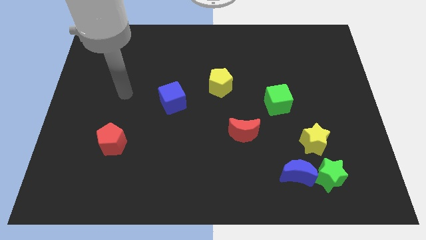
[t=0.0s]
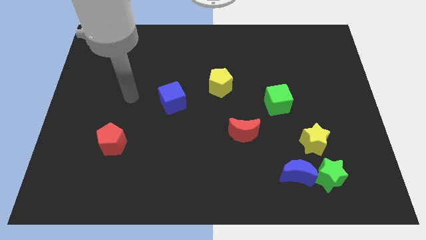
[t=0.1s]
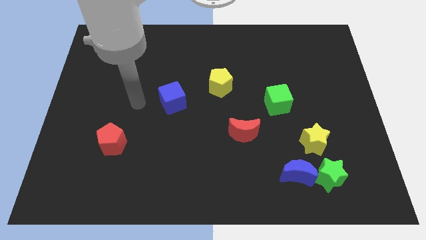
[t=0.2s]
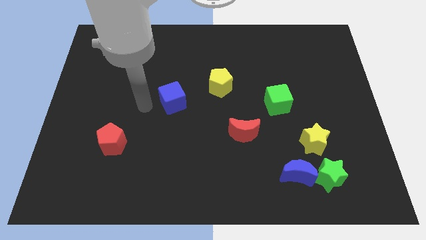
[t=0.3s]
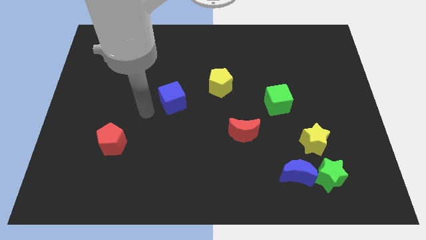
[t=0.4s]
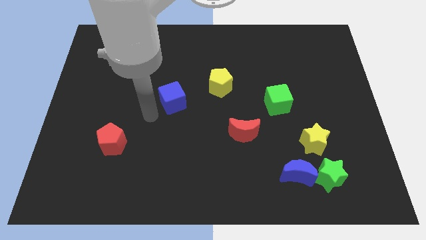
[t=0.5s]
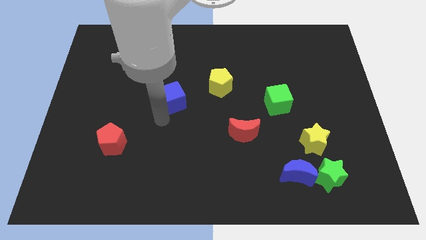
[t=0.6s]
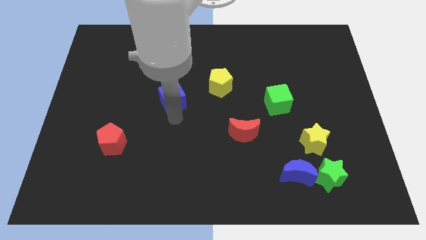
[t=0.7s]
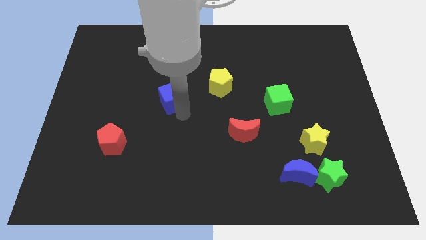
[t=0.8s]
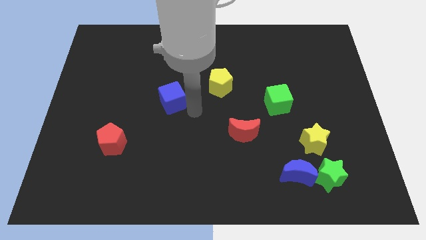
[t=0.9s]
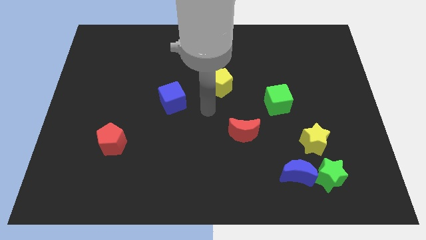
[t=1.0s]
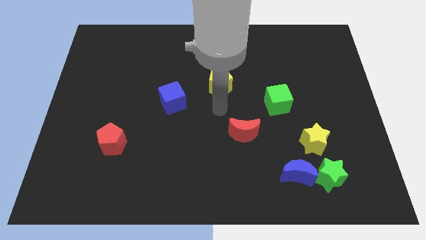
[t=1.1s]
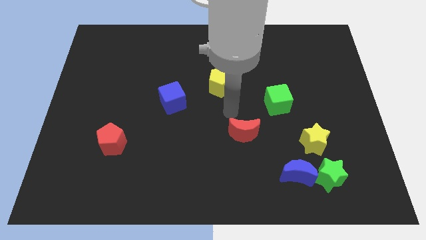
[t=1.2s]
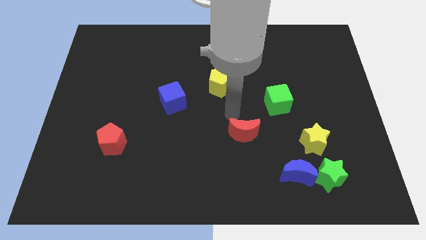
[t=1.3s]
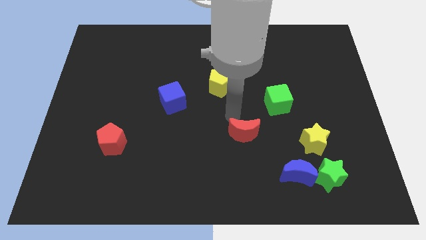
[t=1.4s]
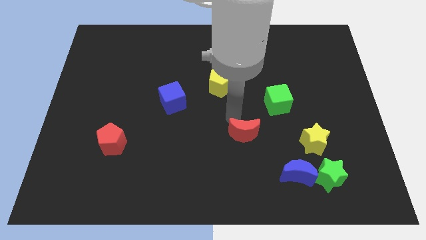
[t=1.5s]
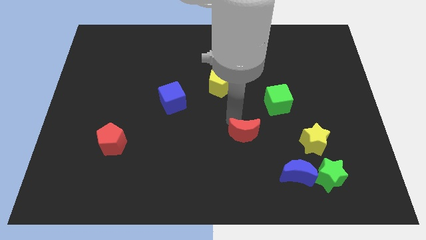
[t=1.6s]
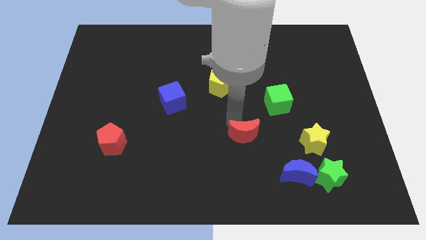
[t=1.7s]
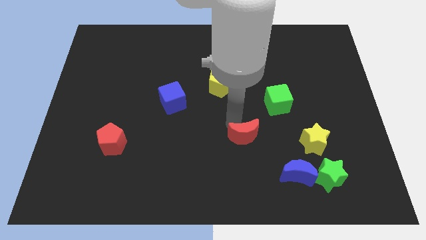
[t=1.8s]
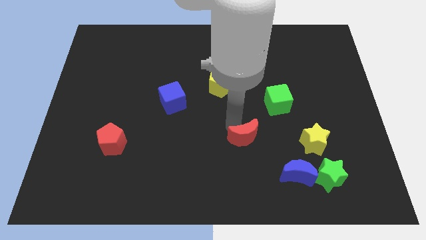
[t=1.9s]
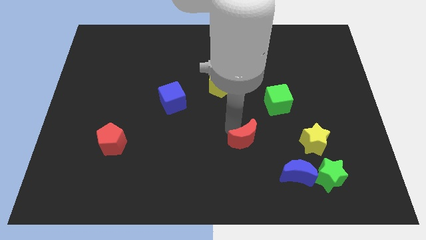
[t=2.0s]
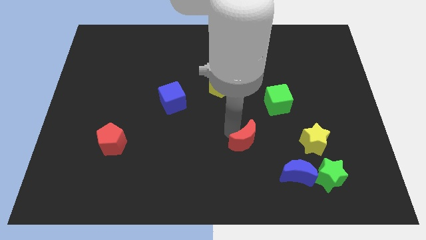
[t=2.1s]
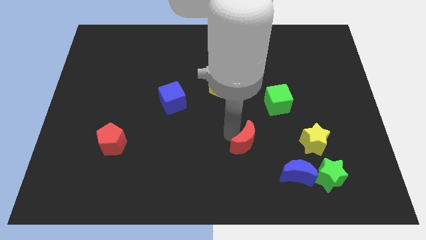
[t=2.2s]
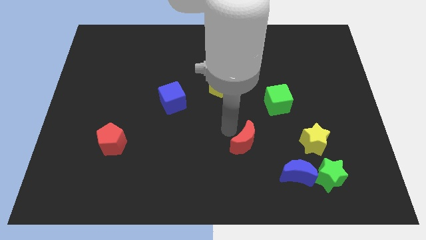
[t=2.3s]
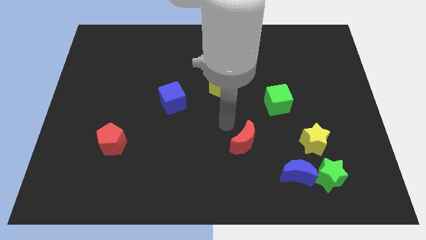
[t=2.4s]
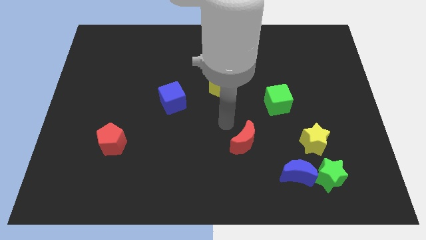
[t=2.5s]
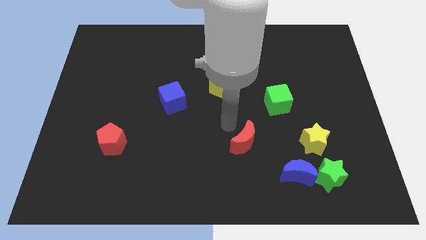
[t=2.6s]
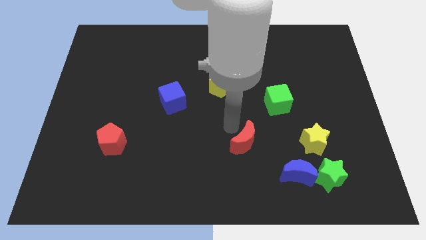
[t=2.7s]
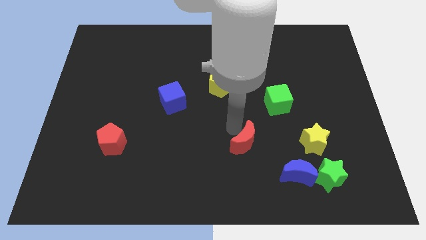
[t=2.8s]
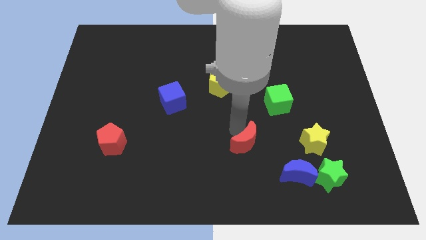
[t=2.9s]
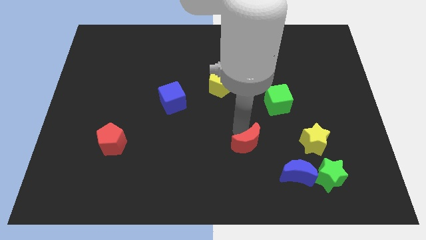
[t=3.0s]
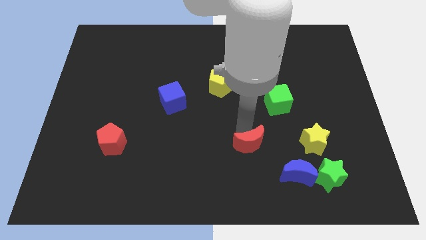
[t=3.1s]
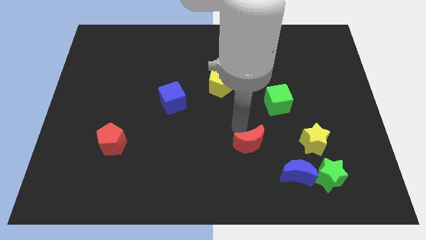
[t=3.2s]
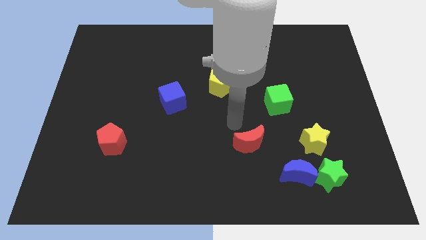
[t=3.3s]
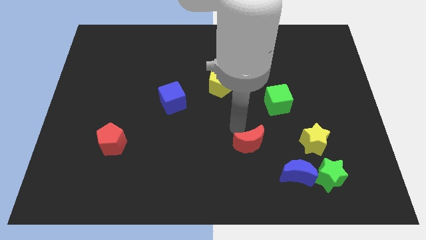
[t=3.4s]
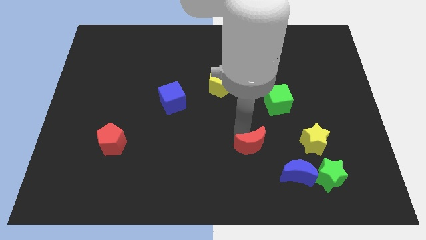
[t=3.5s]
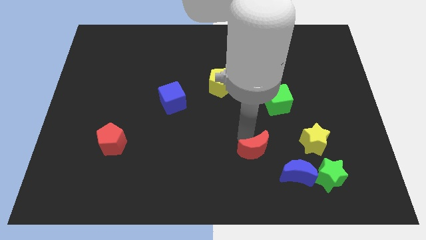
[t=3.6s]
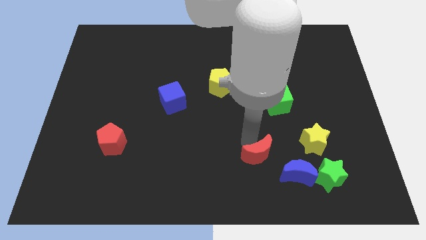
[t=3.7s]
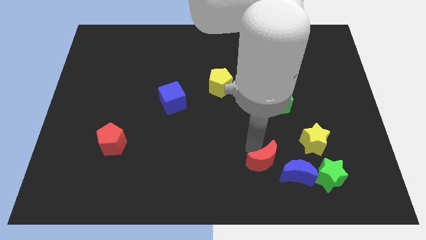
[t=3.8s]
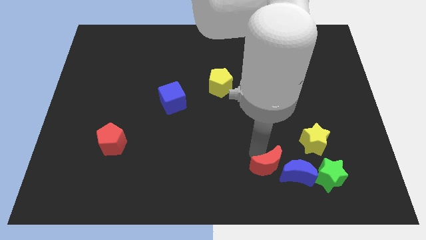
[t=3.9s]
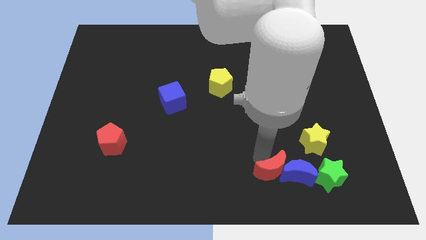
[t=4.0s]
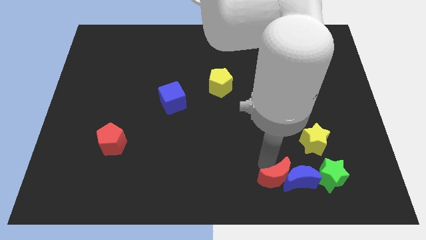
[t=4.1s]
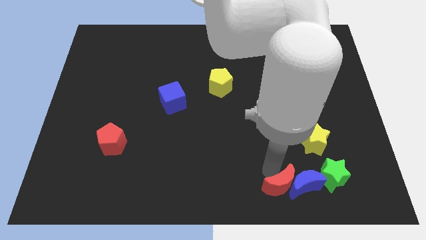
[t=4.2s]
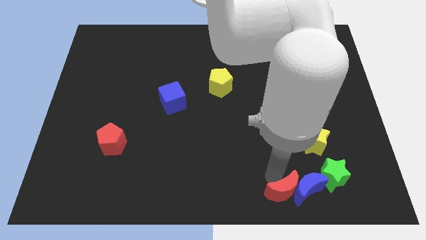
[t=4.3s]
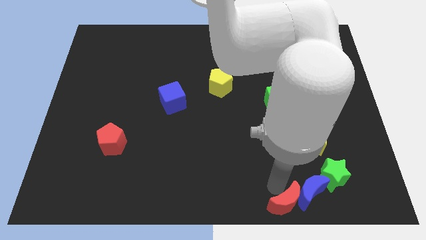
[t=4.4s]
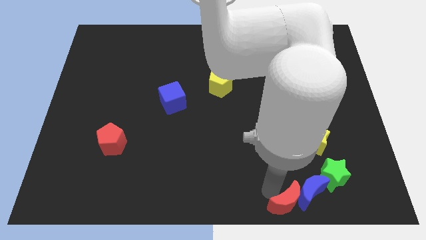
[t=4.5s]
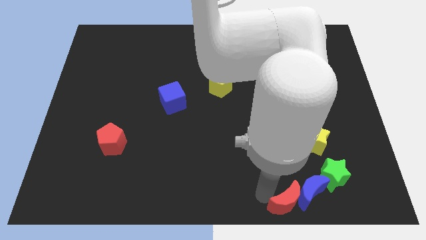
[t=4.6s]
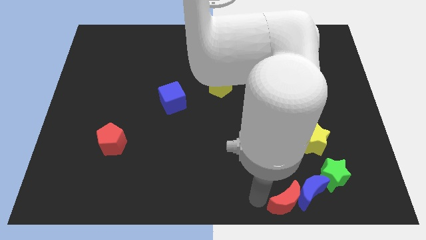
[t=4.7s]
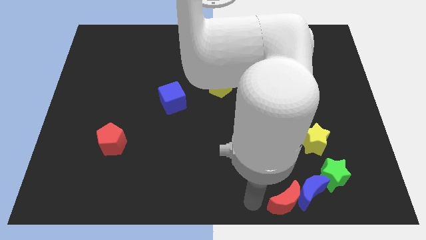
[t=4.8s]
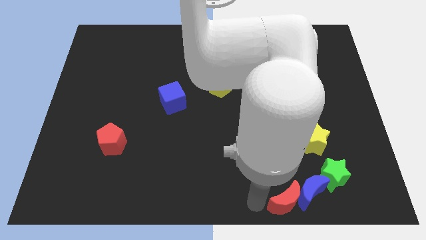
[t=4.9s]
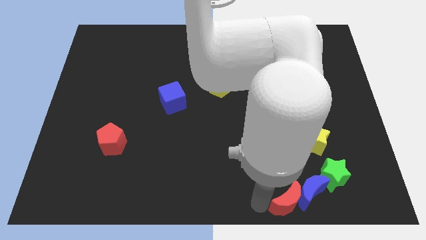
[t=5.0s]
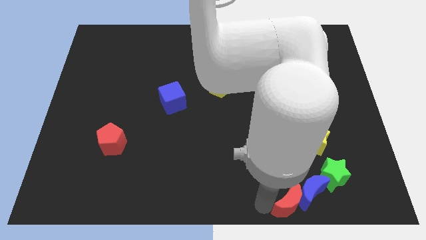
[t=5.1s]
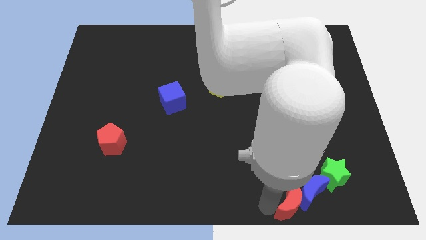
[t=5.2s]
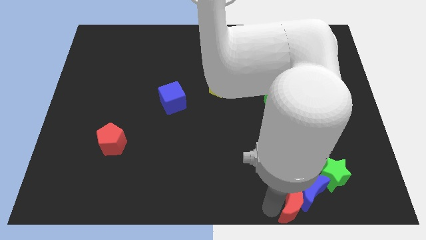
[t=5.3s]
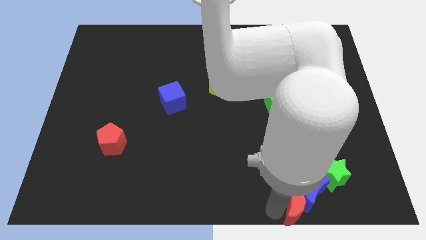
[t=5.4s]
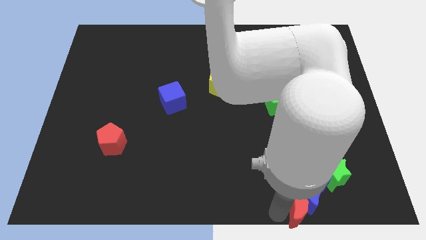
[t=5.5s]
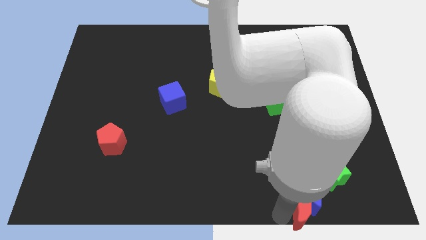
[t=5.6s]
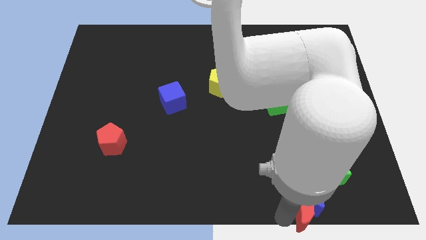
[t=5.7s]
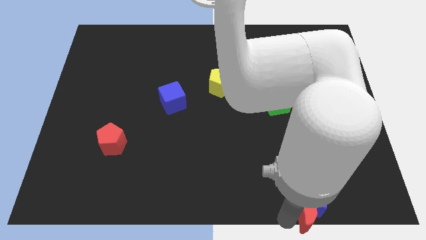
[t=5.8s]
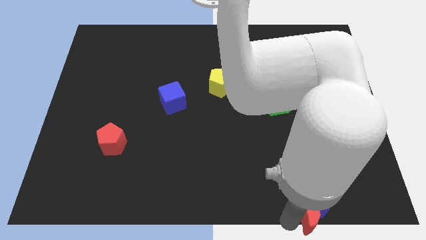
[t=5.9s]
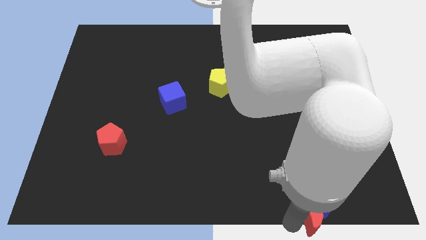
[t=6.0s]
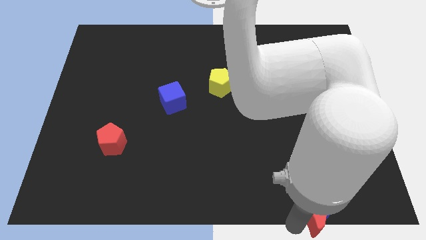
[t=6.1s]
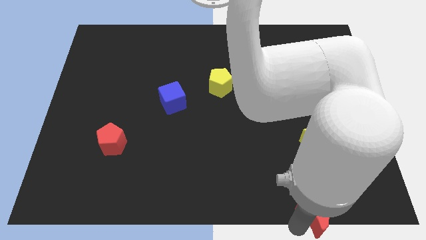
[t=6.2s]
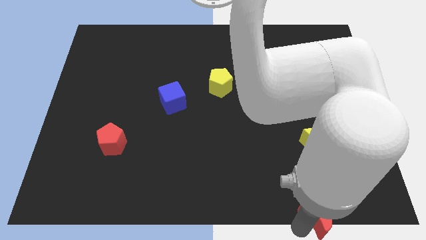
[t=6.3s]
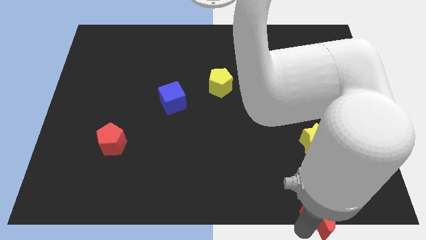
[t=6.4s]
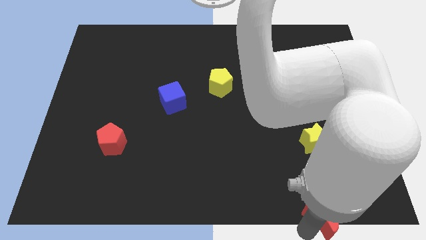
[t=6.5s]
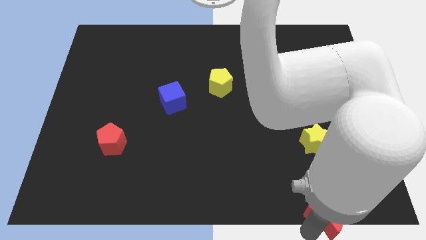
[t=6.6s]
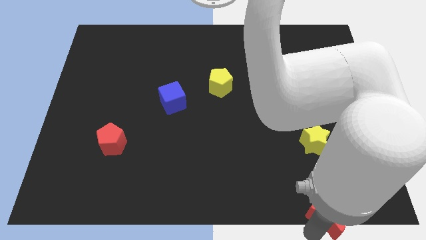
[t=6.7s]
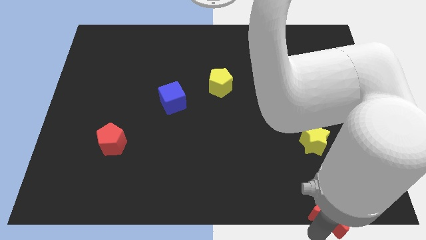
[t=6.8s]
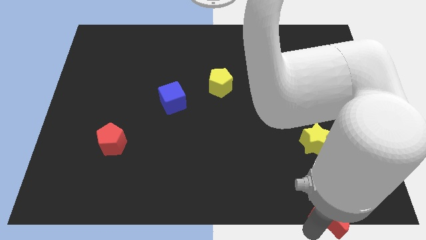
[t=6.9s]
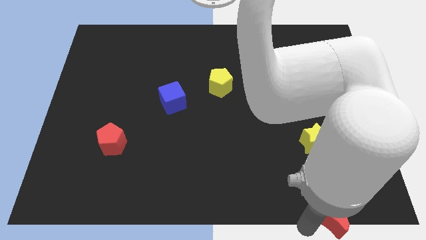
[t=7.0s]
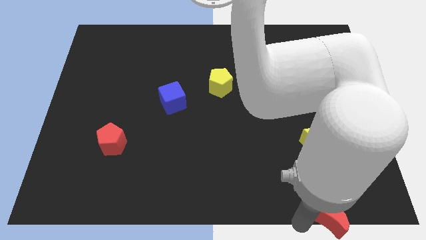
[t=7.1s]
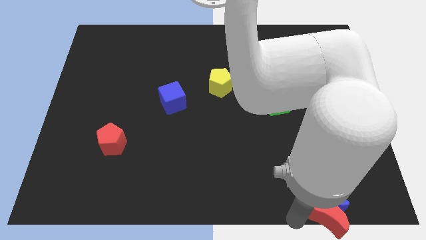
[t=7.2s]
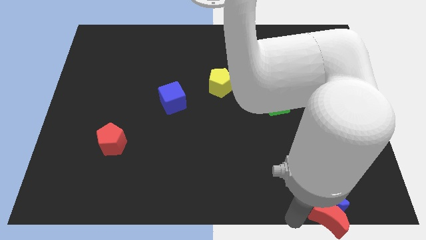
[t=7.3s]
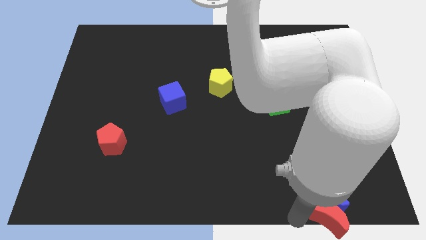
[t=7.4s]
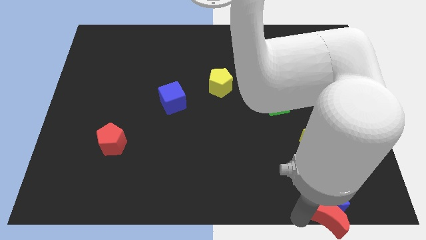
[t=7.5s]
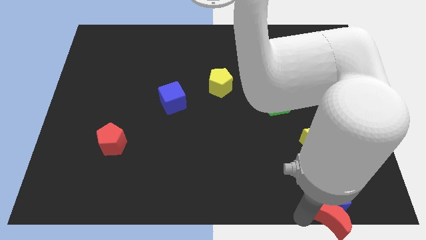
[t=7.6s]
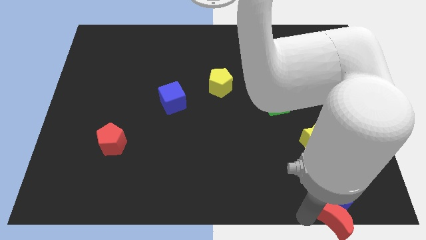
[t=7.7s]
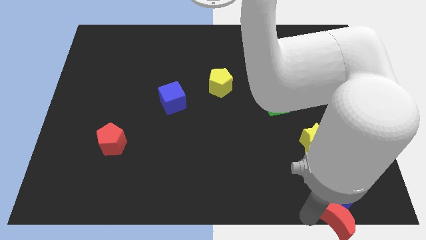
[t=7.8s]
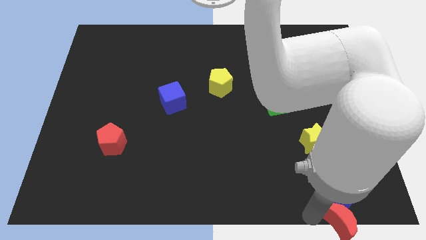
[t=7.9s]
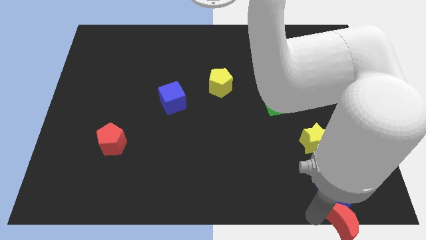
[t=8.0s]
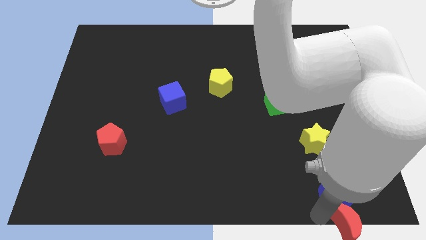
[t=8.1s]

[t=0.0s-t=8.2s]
push the red moon to the bottom right
